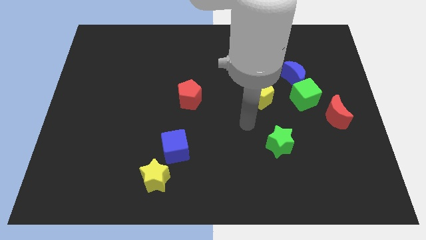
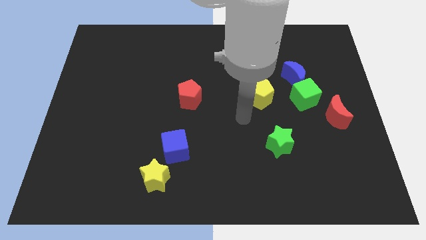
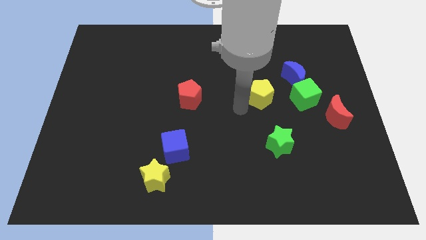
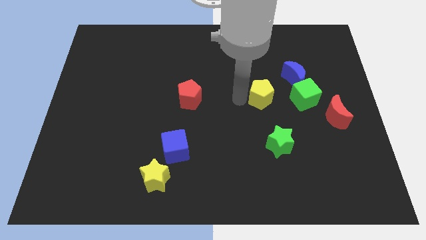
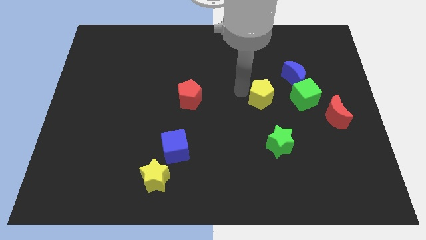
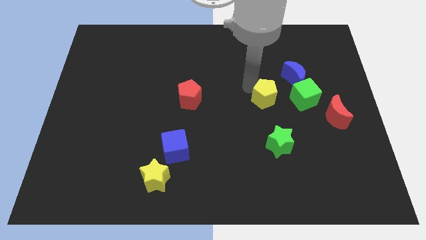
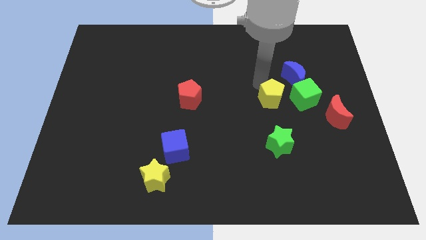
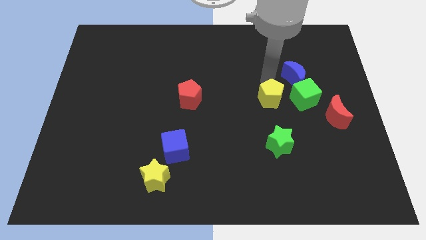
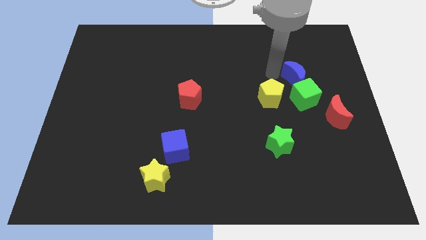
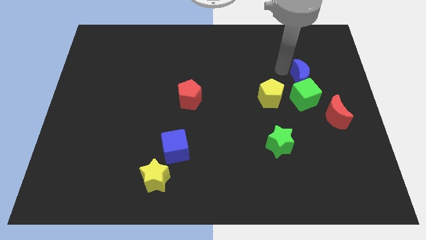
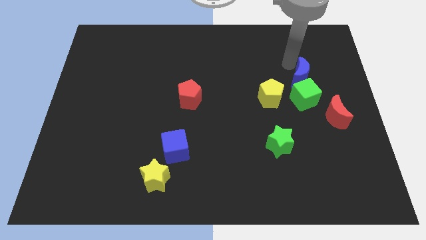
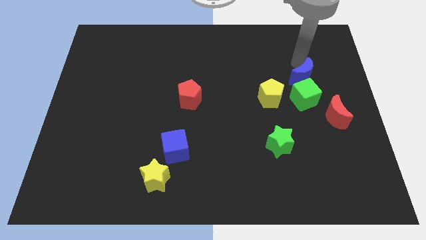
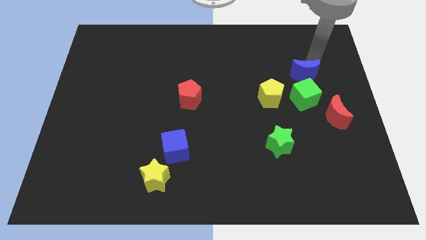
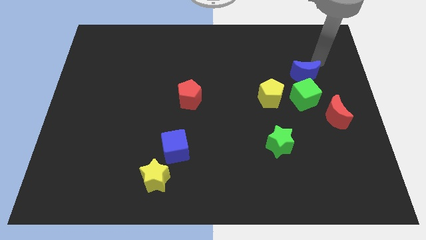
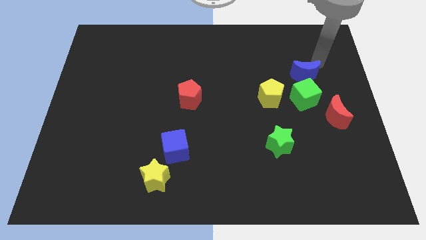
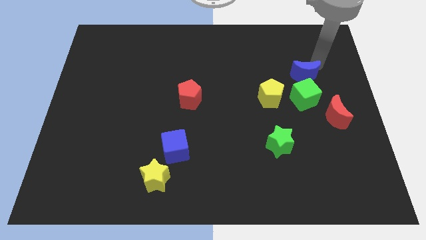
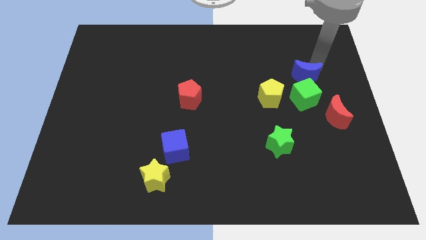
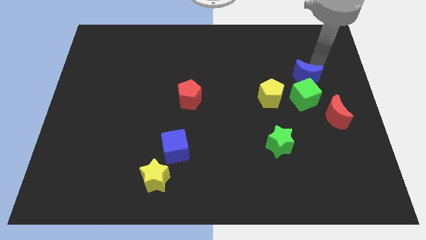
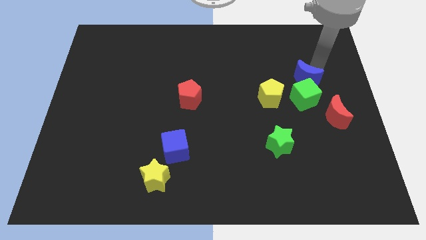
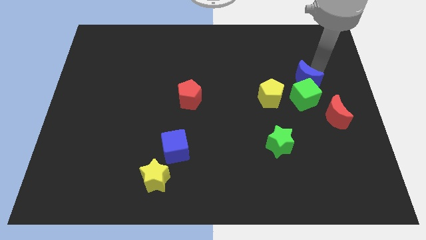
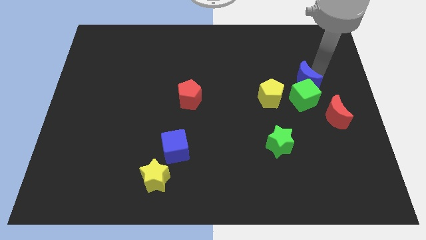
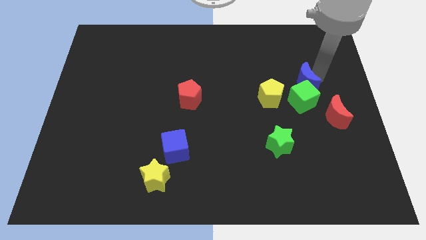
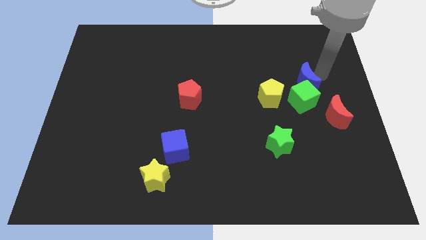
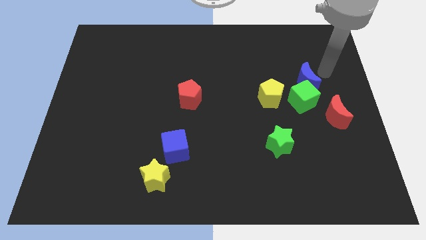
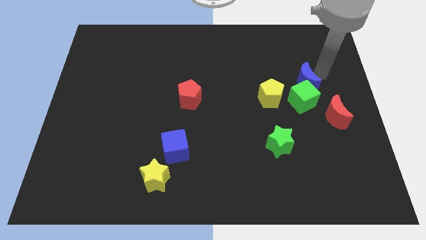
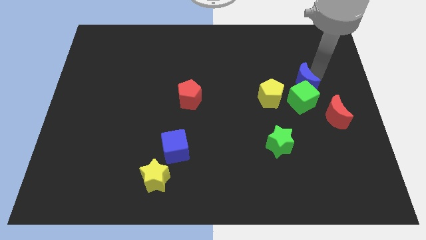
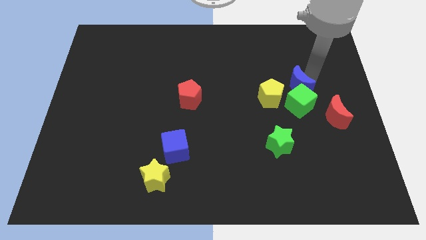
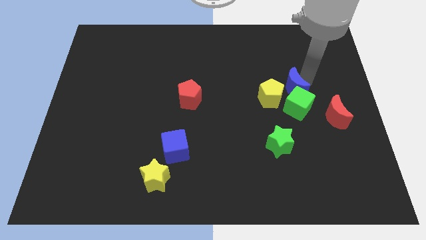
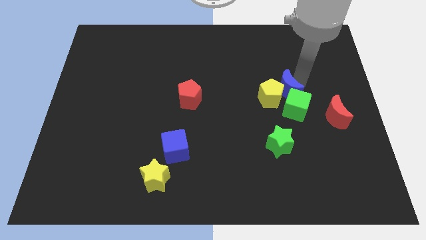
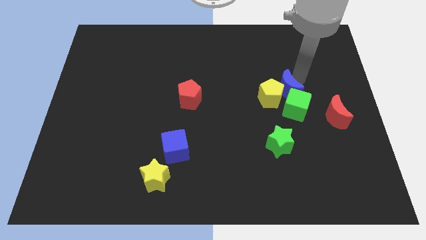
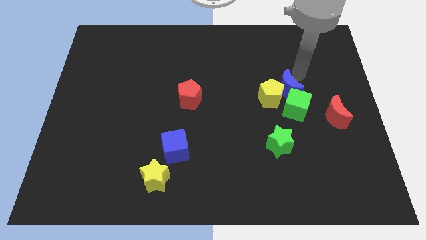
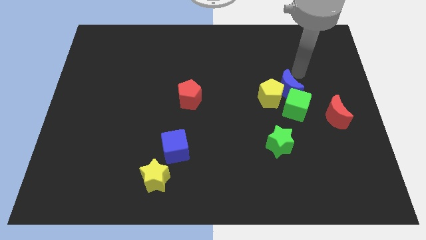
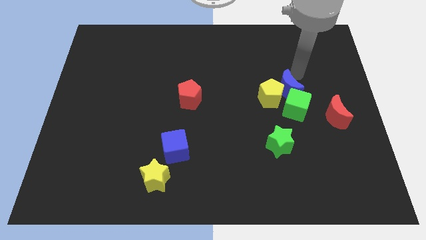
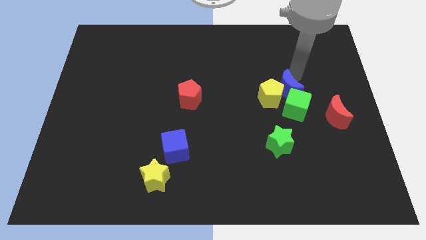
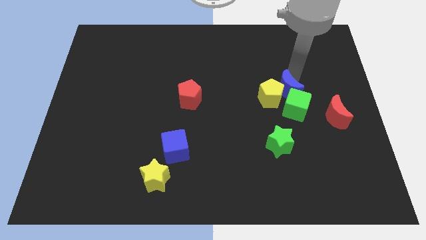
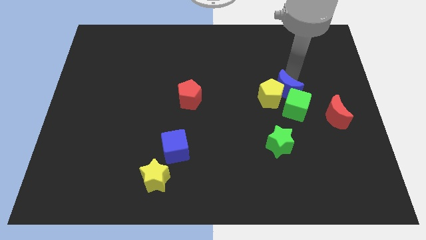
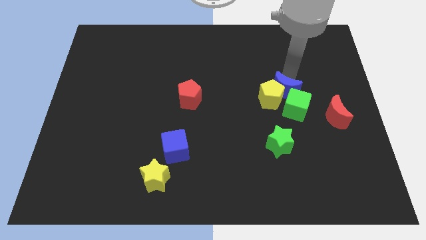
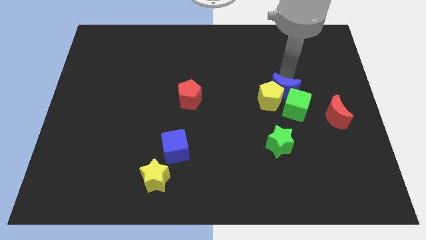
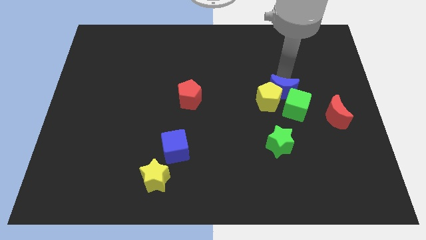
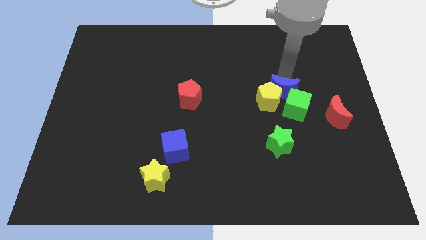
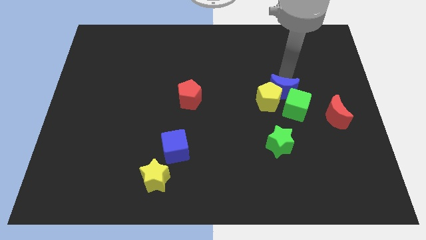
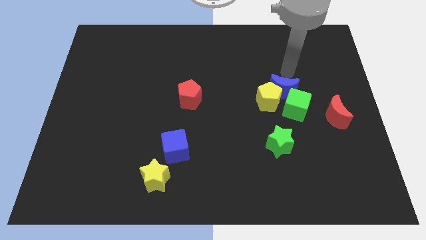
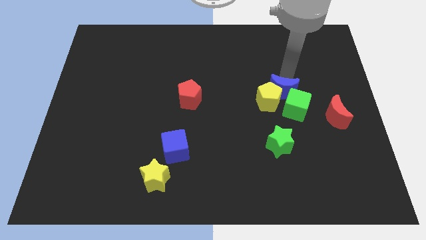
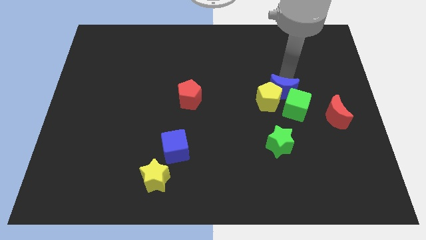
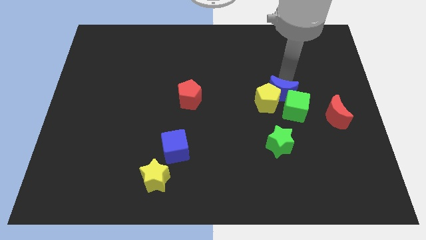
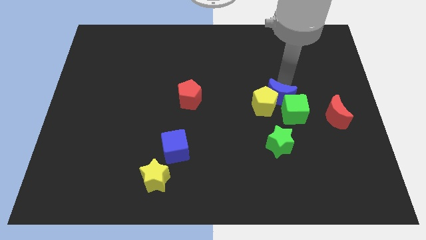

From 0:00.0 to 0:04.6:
slide the blue moon down and then to the left a little

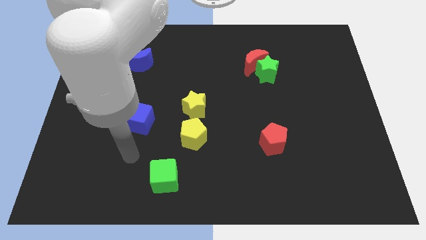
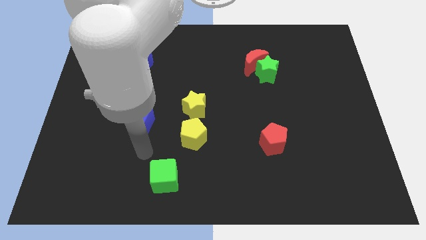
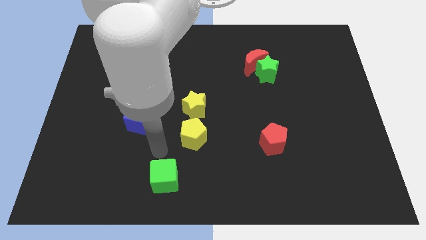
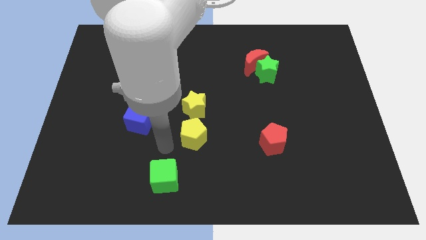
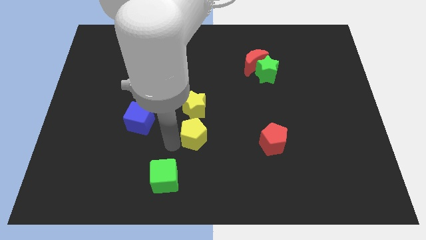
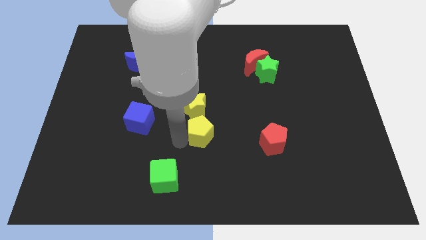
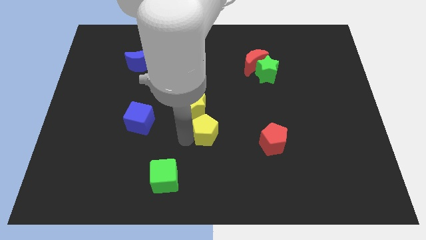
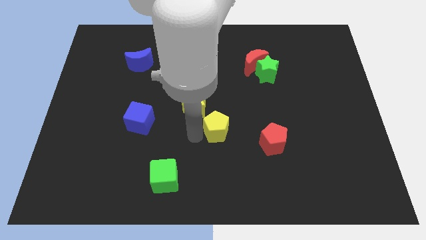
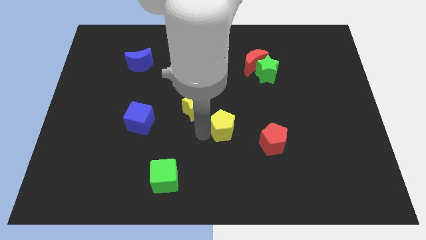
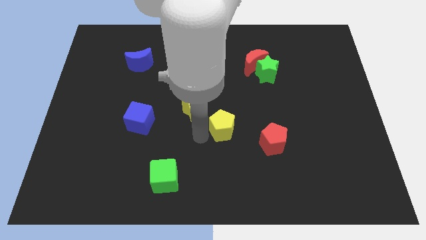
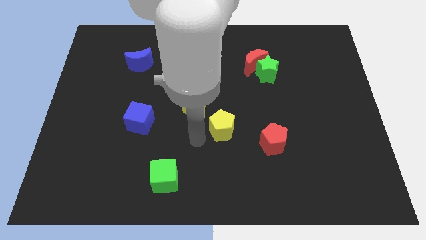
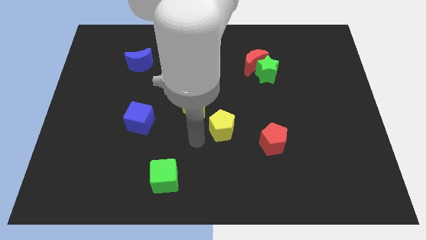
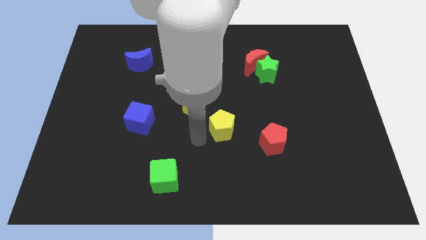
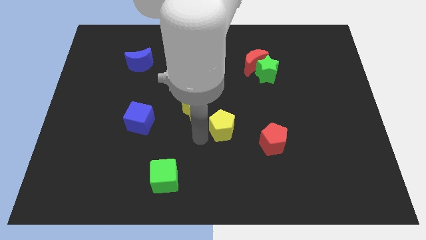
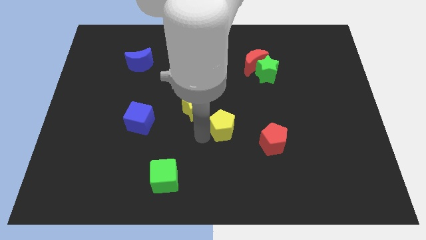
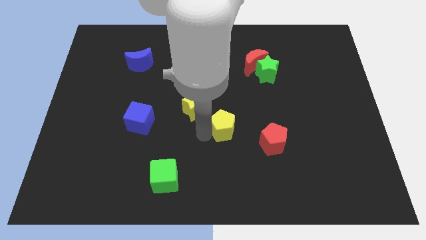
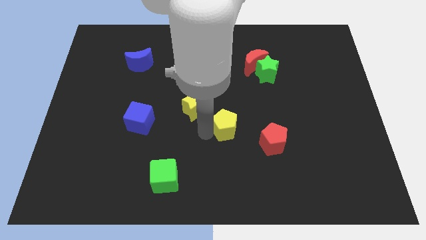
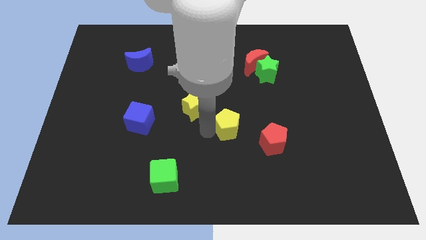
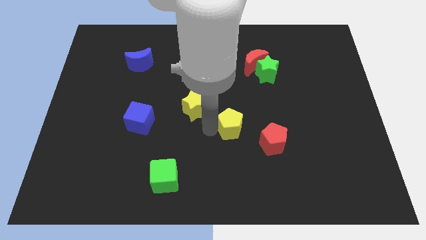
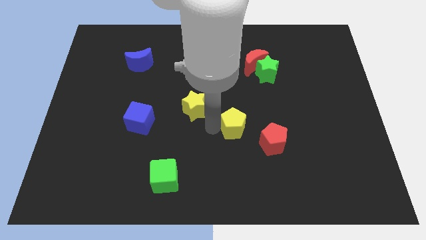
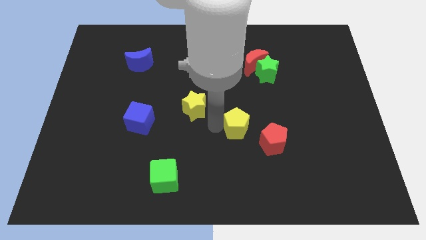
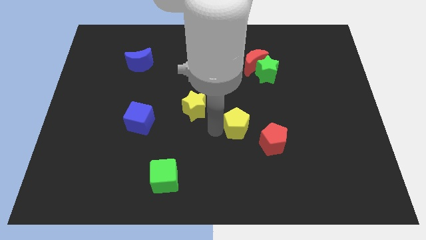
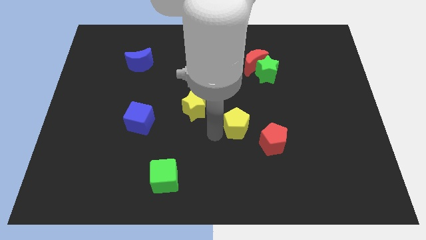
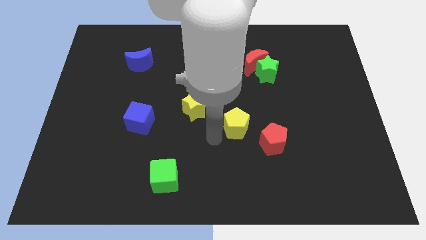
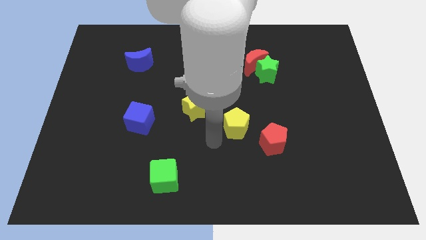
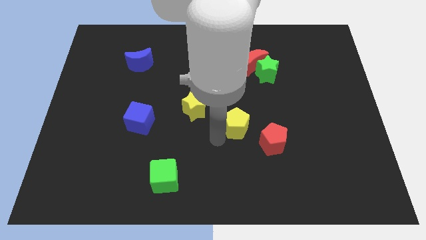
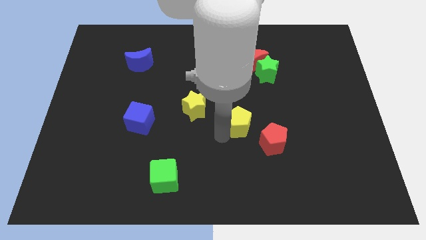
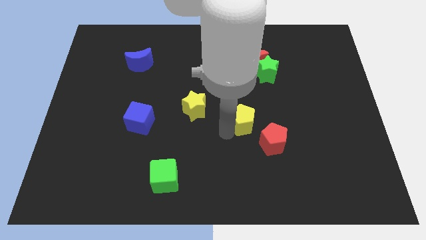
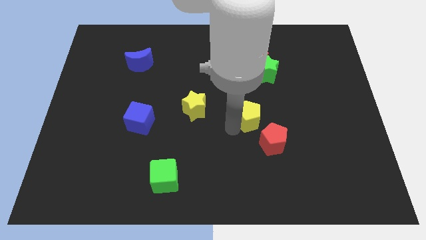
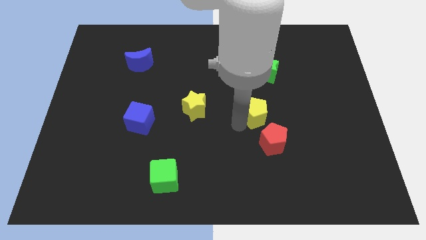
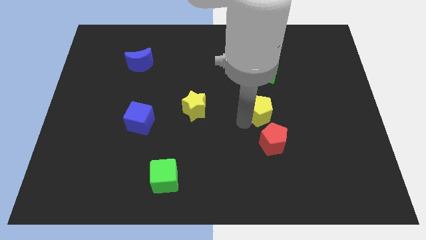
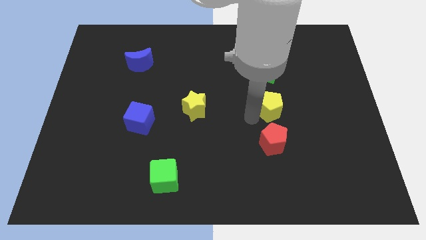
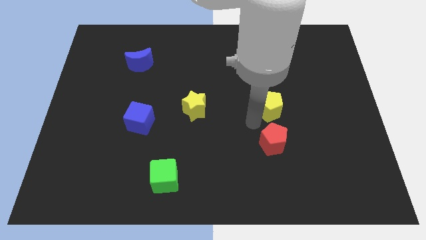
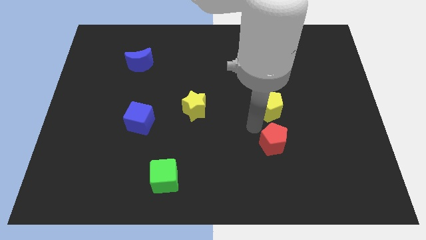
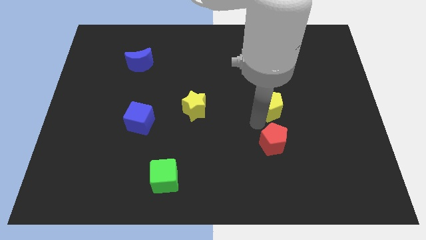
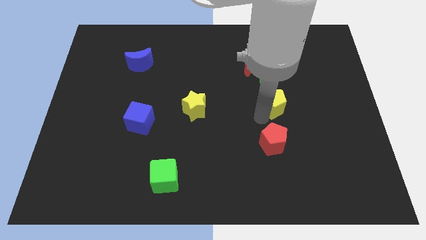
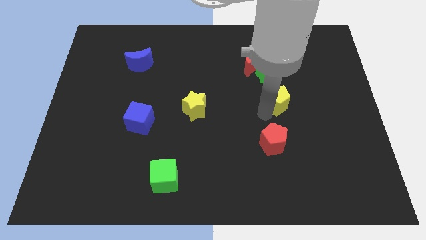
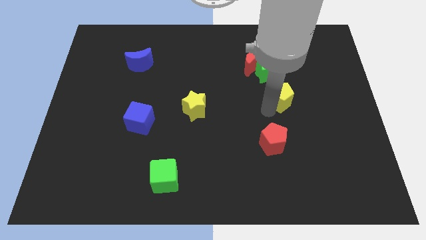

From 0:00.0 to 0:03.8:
move the yellow pentagon diagonally up and right
